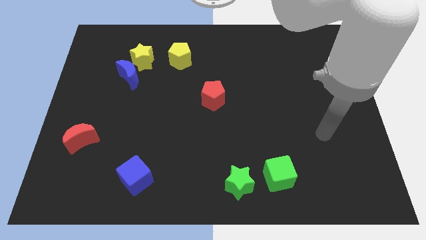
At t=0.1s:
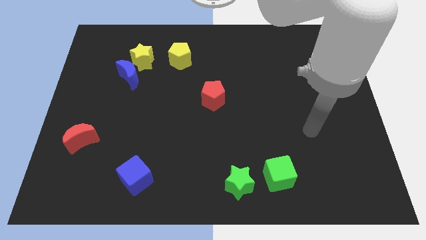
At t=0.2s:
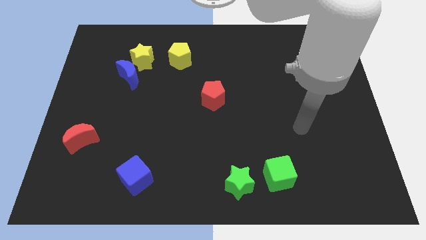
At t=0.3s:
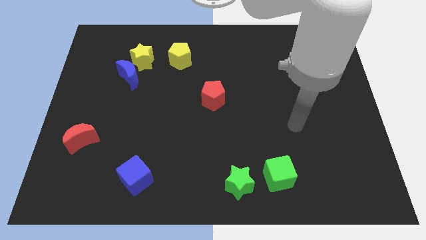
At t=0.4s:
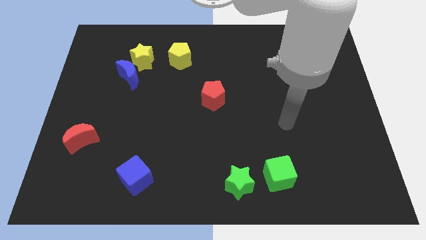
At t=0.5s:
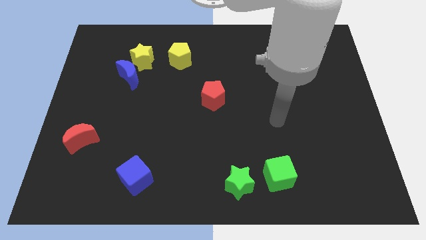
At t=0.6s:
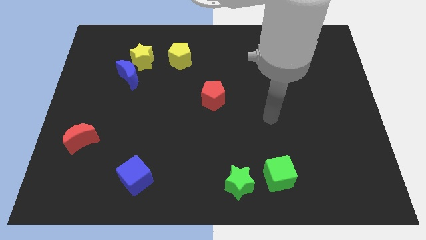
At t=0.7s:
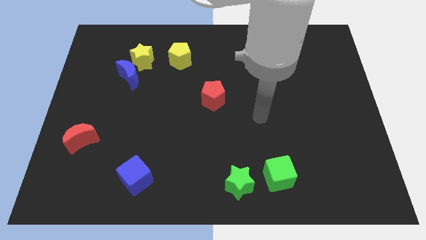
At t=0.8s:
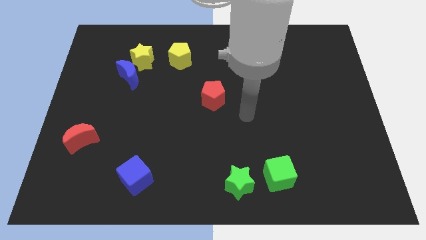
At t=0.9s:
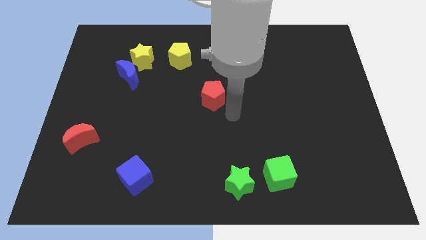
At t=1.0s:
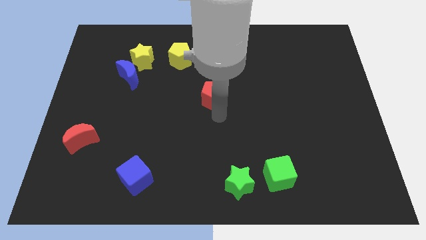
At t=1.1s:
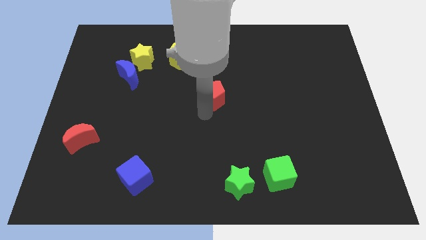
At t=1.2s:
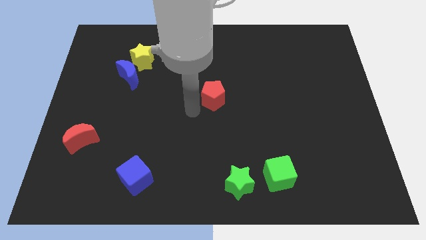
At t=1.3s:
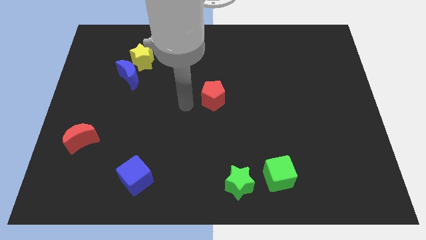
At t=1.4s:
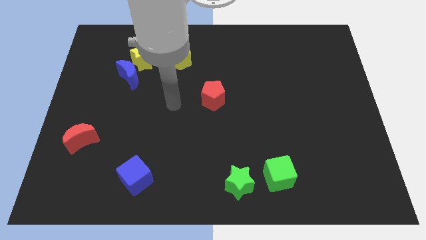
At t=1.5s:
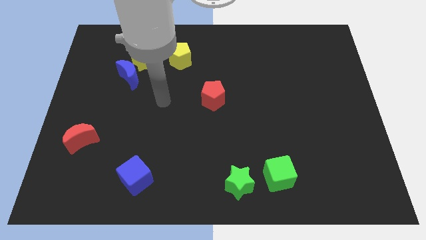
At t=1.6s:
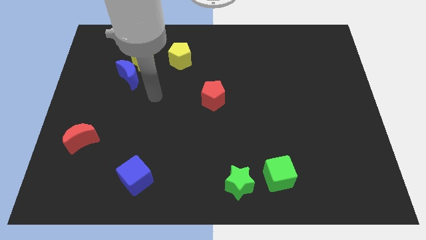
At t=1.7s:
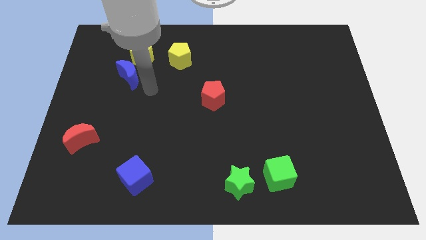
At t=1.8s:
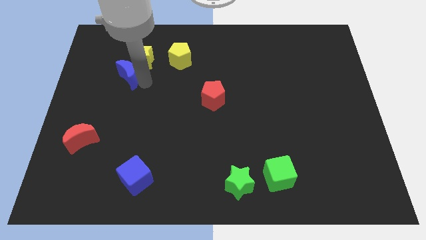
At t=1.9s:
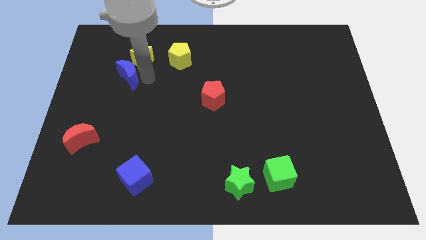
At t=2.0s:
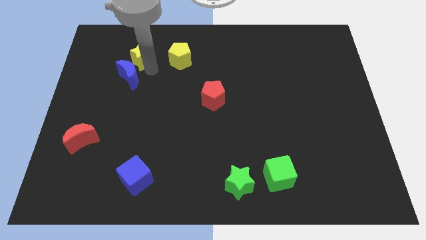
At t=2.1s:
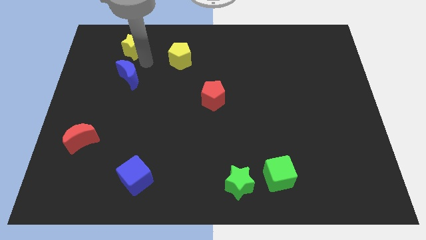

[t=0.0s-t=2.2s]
separate the blue moon from the yellow star

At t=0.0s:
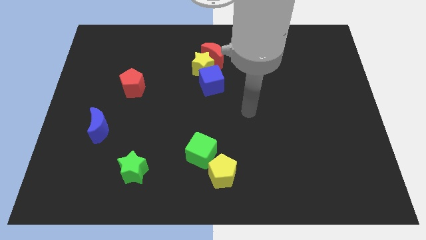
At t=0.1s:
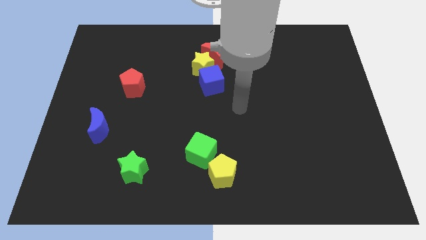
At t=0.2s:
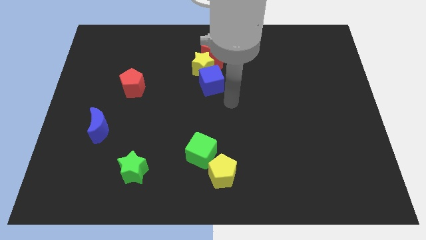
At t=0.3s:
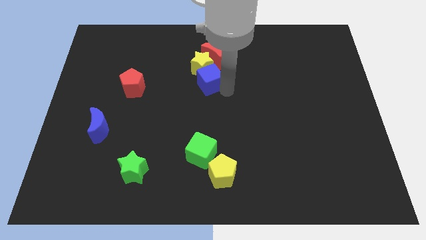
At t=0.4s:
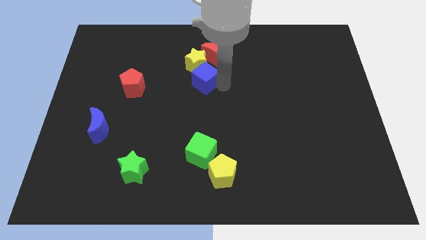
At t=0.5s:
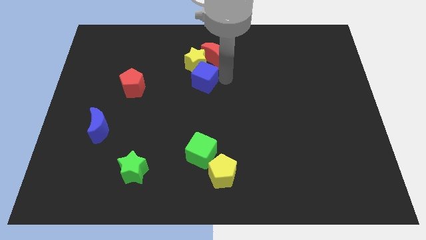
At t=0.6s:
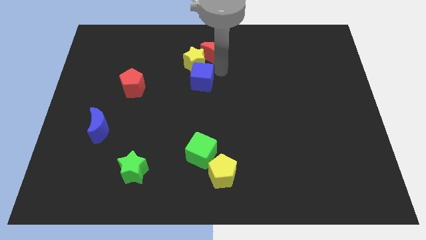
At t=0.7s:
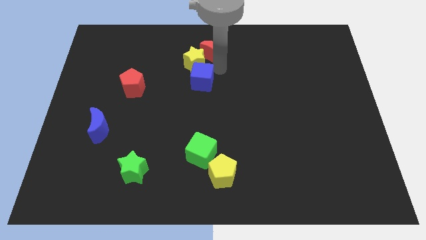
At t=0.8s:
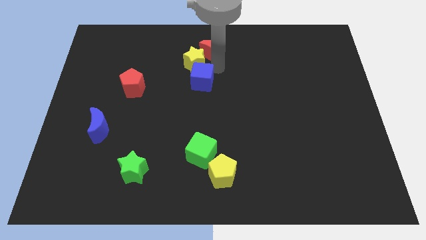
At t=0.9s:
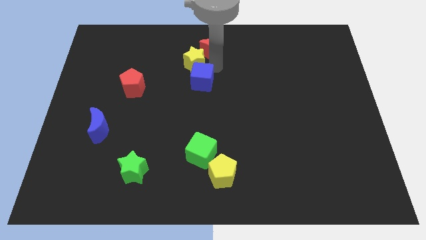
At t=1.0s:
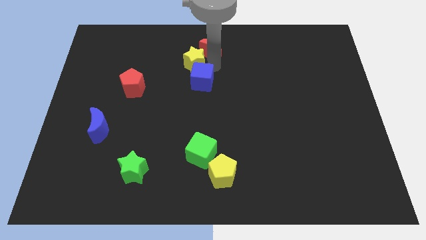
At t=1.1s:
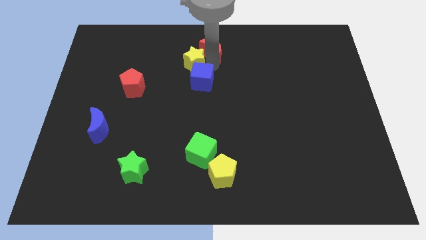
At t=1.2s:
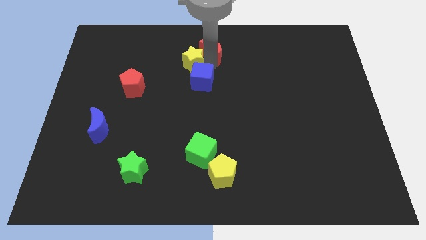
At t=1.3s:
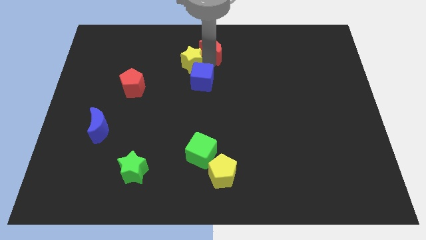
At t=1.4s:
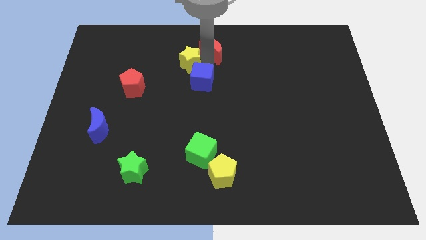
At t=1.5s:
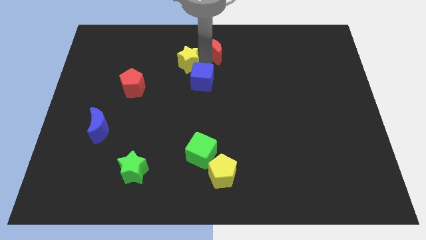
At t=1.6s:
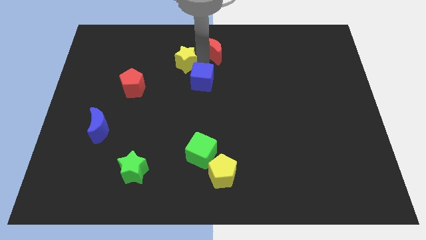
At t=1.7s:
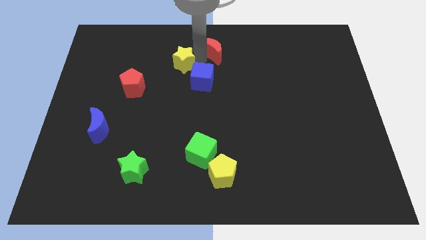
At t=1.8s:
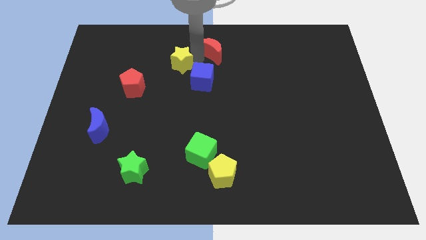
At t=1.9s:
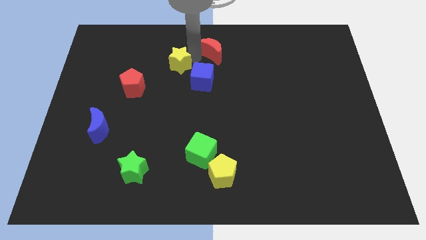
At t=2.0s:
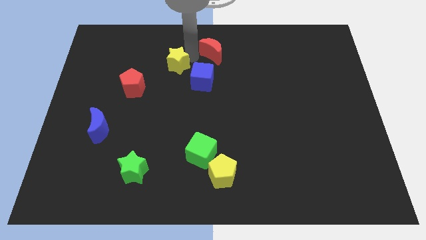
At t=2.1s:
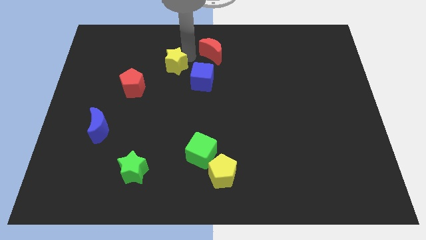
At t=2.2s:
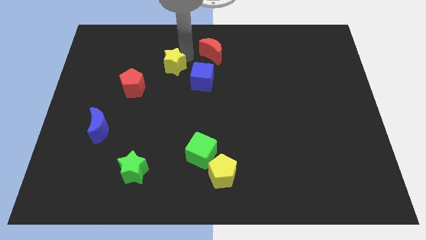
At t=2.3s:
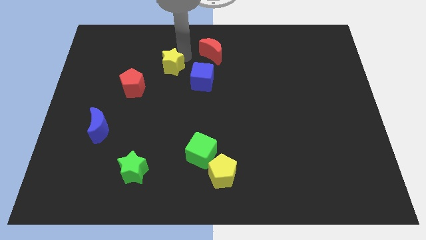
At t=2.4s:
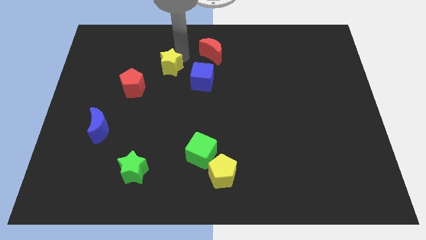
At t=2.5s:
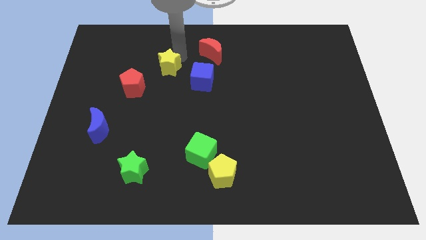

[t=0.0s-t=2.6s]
separate the yellow star from the red moon and blue cube

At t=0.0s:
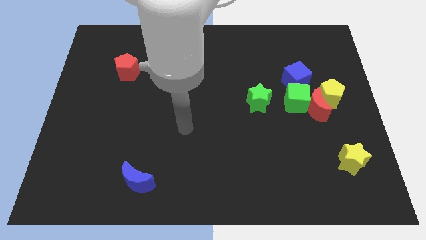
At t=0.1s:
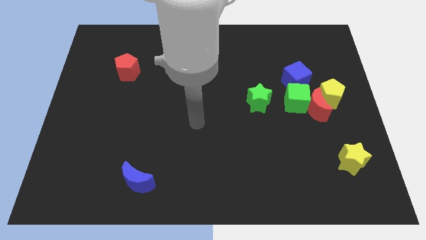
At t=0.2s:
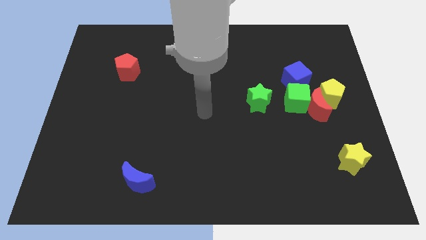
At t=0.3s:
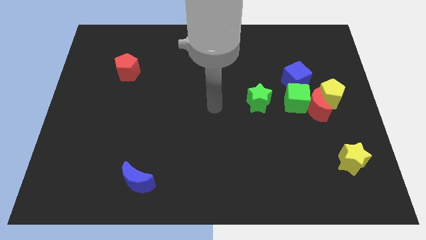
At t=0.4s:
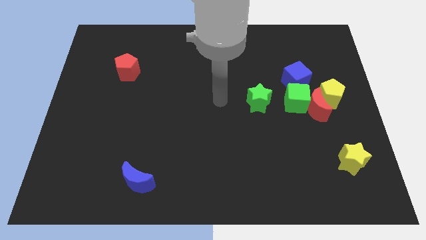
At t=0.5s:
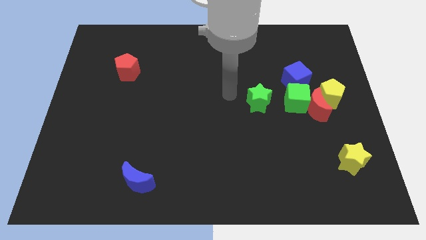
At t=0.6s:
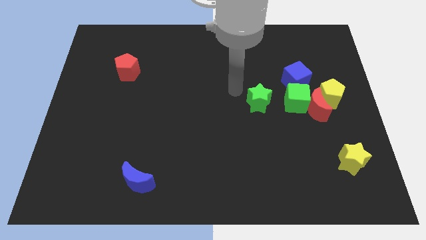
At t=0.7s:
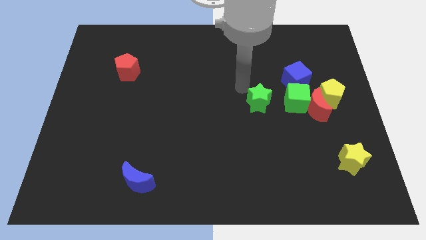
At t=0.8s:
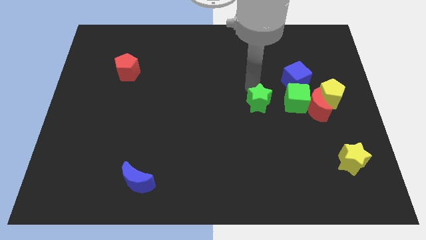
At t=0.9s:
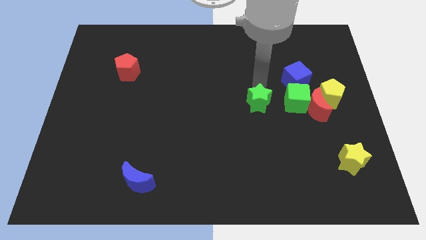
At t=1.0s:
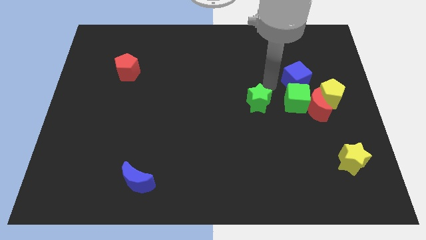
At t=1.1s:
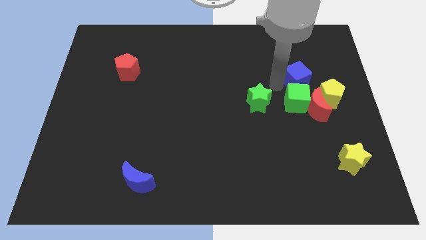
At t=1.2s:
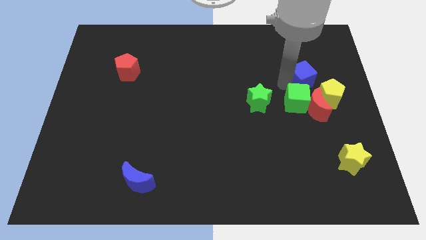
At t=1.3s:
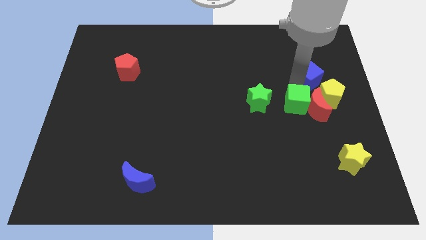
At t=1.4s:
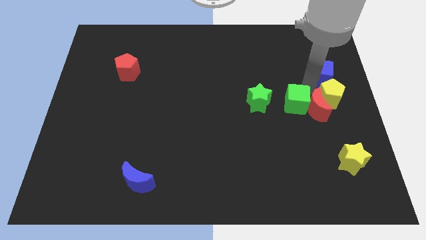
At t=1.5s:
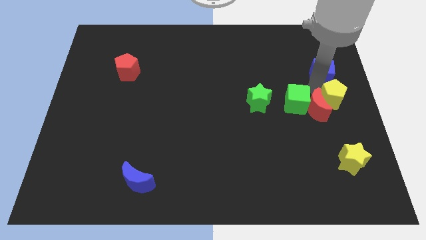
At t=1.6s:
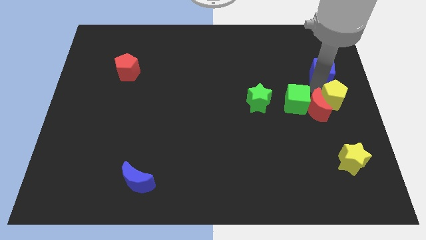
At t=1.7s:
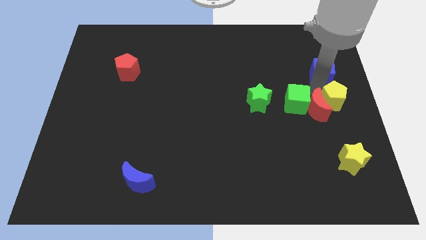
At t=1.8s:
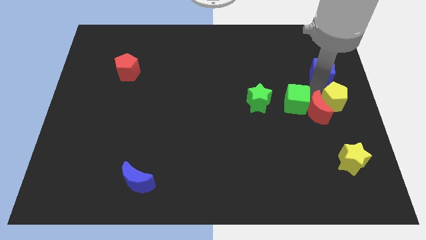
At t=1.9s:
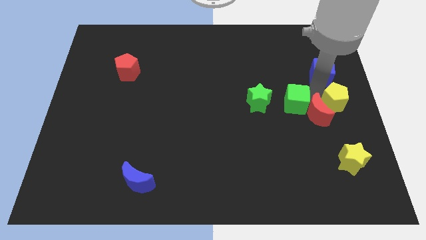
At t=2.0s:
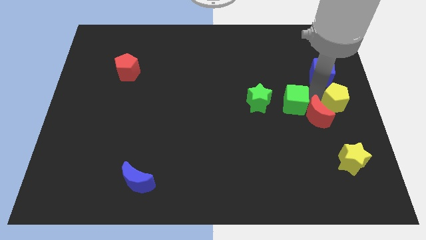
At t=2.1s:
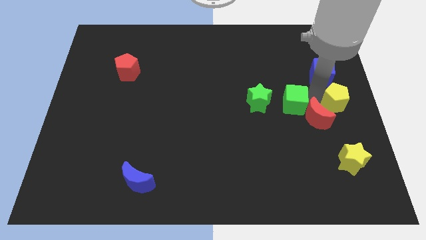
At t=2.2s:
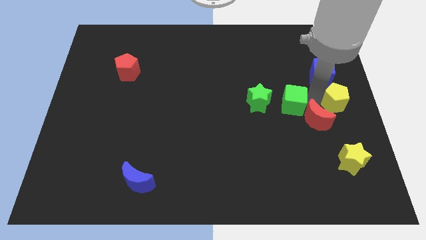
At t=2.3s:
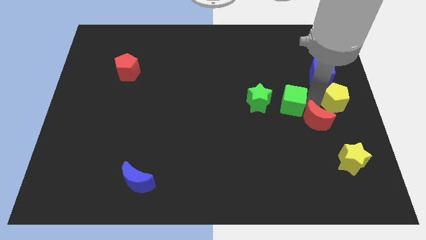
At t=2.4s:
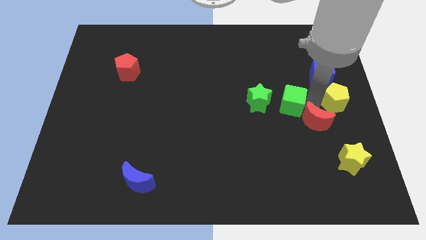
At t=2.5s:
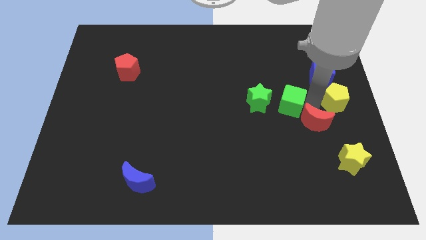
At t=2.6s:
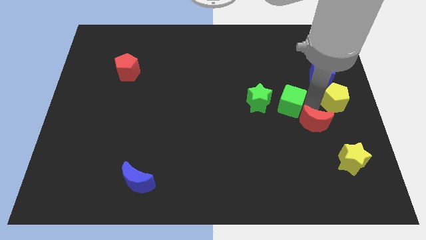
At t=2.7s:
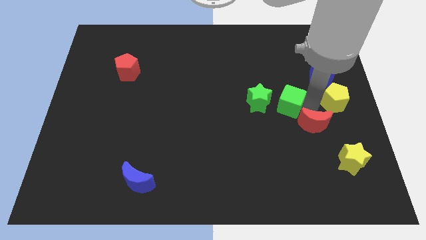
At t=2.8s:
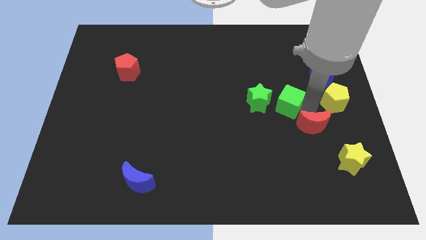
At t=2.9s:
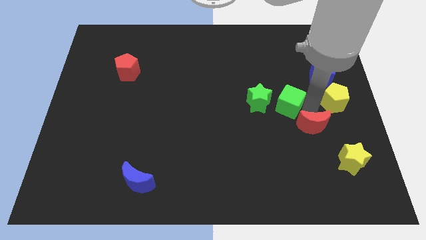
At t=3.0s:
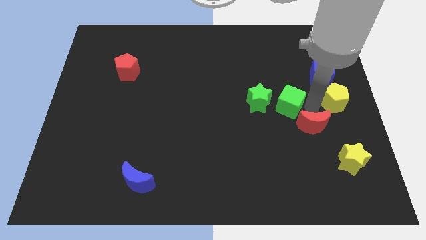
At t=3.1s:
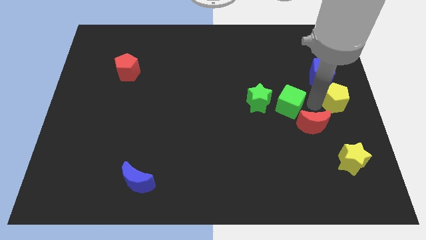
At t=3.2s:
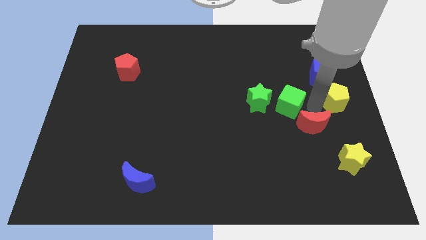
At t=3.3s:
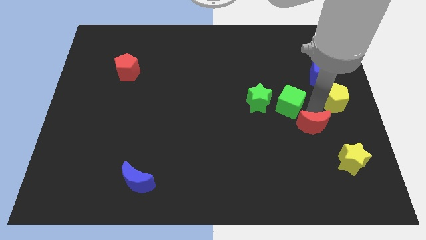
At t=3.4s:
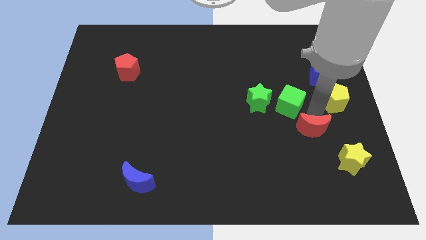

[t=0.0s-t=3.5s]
separate the red moon from the green cube, yellow pentagon, and blue cube

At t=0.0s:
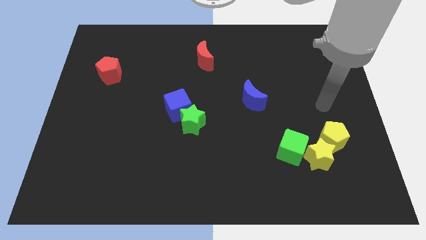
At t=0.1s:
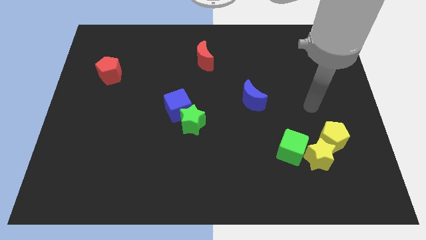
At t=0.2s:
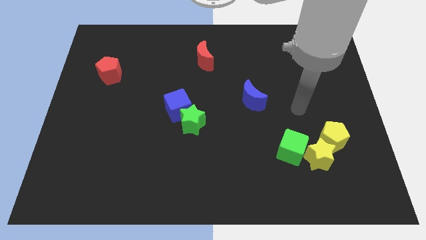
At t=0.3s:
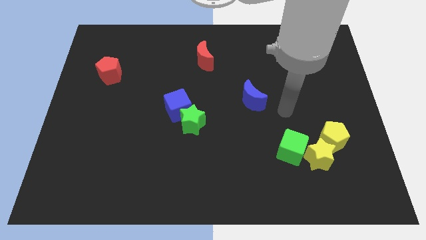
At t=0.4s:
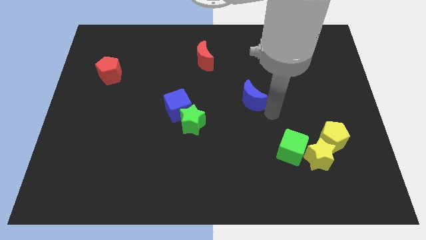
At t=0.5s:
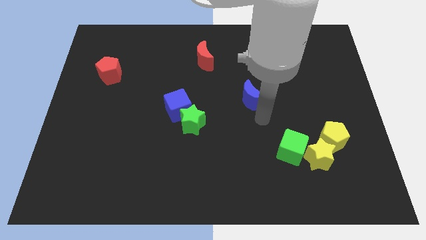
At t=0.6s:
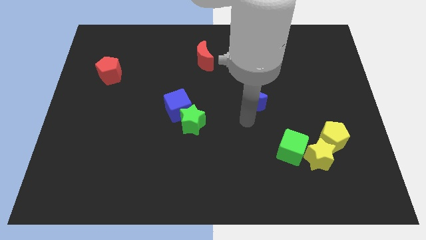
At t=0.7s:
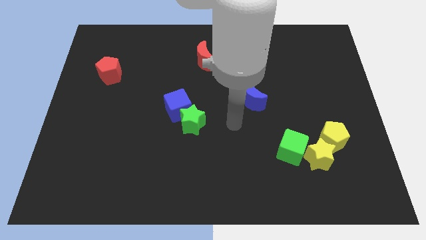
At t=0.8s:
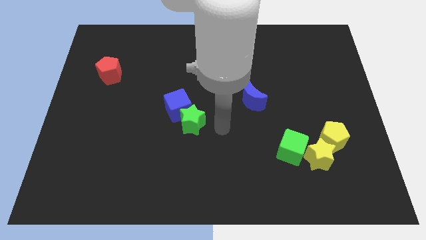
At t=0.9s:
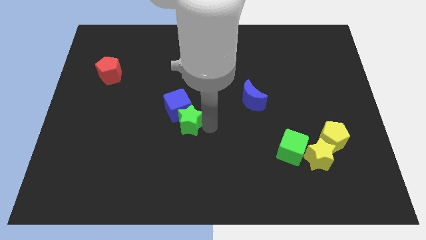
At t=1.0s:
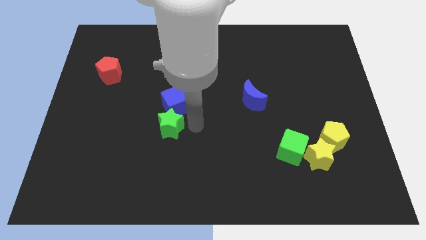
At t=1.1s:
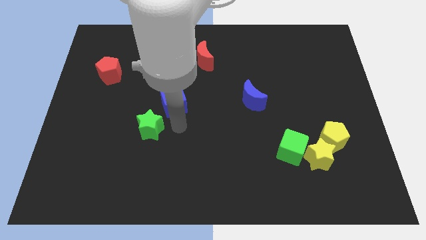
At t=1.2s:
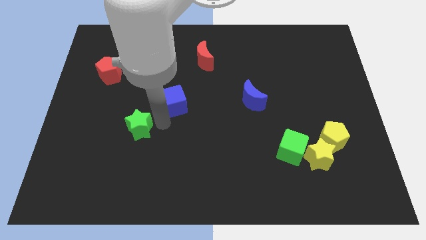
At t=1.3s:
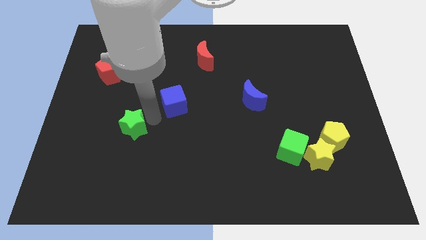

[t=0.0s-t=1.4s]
move the blue cube away from the green star
